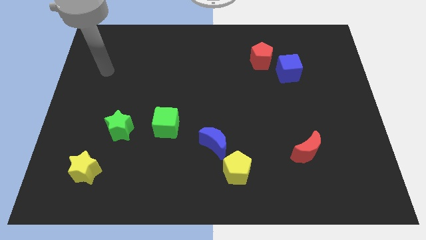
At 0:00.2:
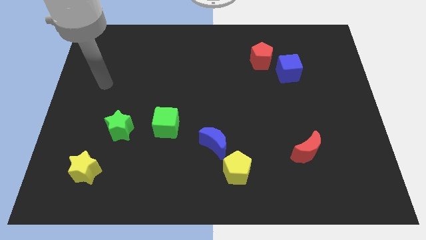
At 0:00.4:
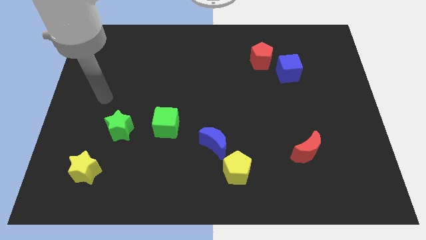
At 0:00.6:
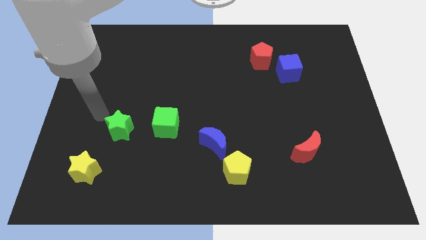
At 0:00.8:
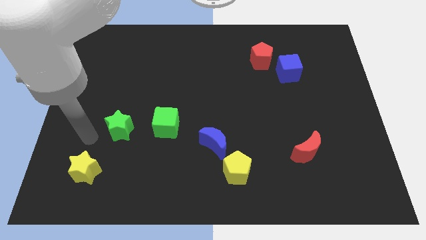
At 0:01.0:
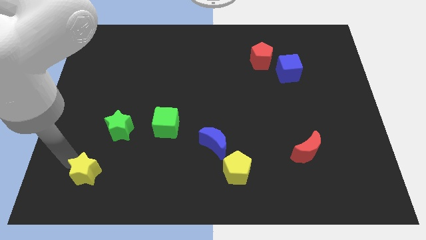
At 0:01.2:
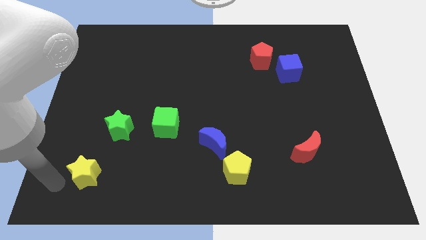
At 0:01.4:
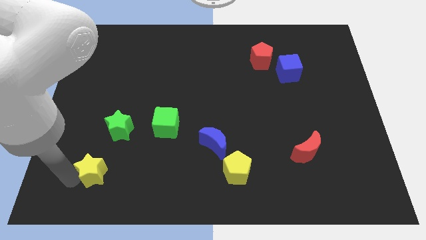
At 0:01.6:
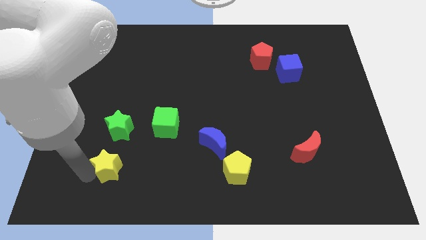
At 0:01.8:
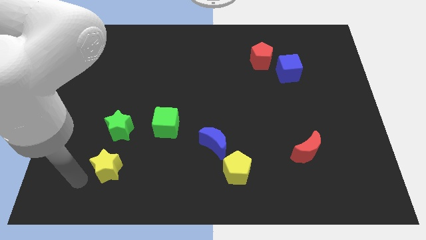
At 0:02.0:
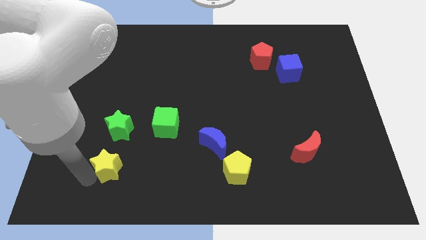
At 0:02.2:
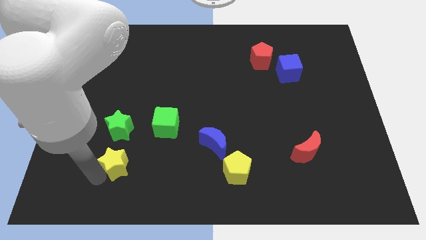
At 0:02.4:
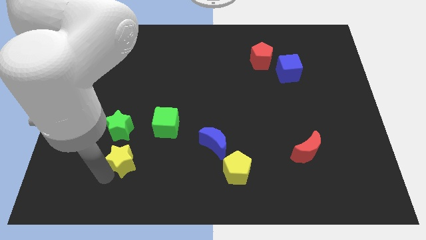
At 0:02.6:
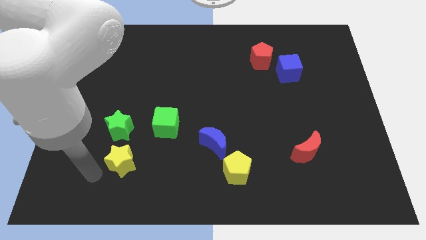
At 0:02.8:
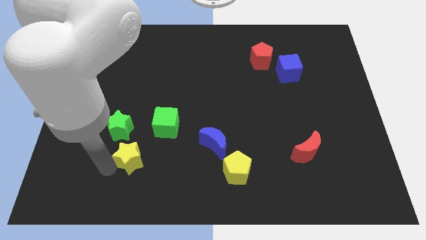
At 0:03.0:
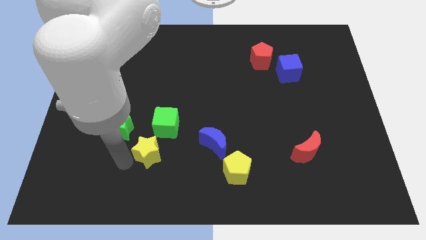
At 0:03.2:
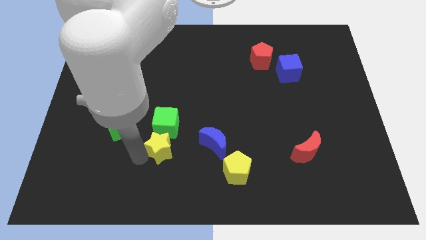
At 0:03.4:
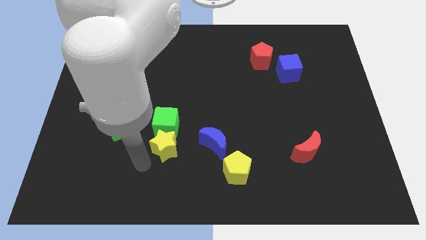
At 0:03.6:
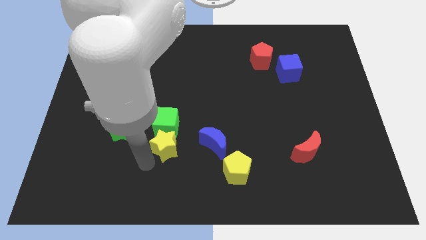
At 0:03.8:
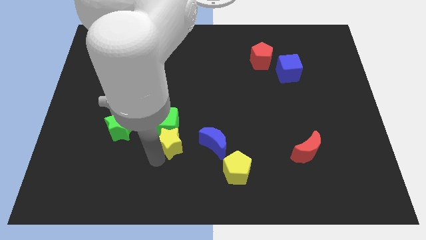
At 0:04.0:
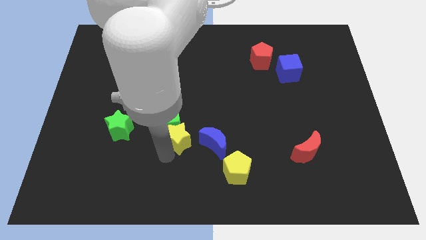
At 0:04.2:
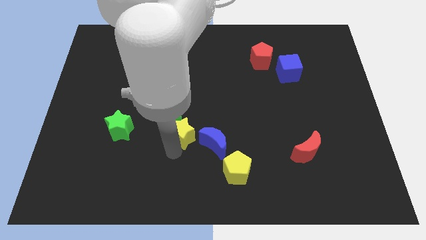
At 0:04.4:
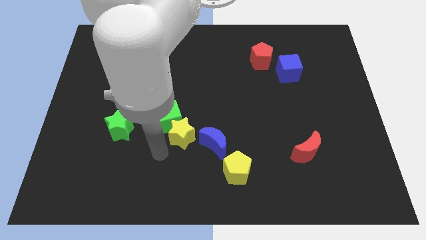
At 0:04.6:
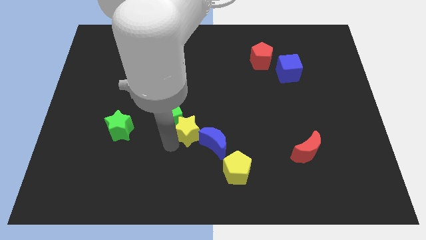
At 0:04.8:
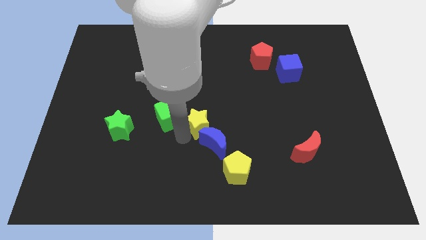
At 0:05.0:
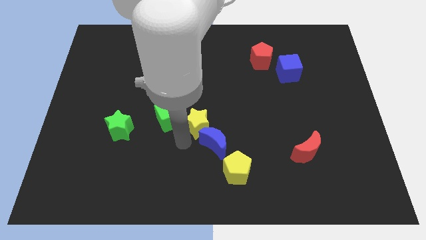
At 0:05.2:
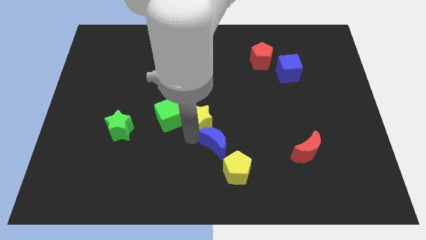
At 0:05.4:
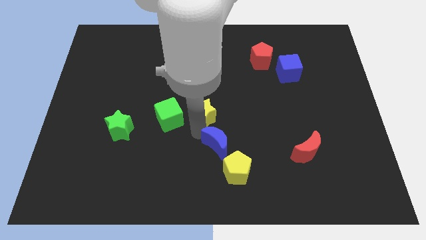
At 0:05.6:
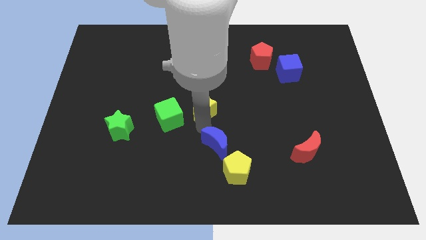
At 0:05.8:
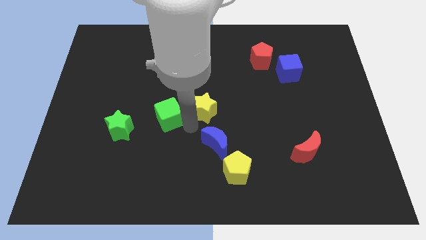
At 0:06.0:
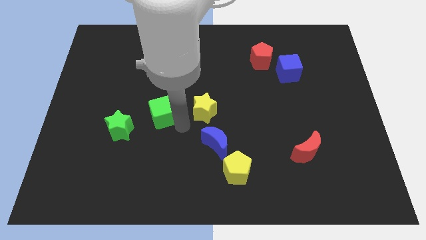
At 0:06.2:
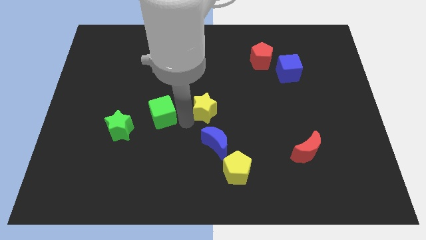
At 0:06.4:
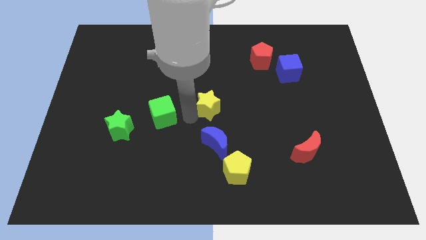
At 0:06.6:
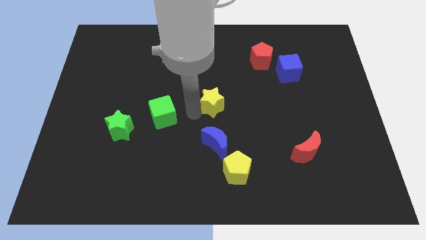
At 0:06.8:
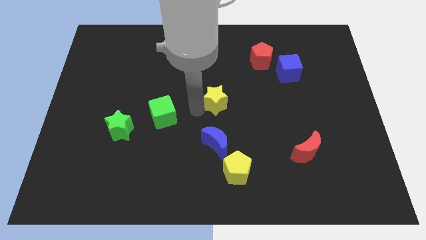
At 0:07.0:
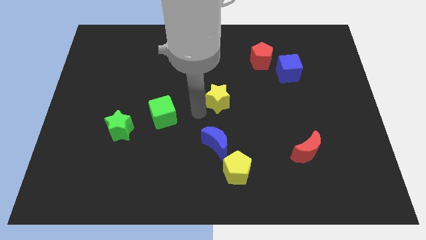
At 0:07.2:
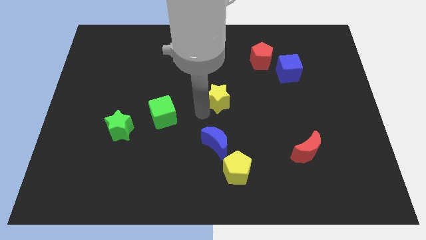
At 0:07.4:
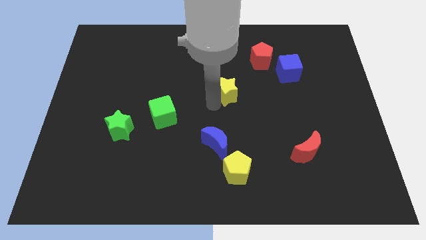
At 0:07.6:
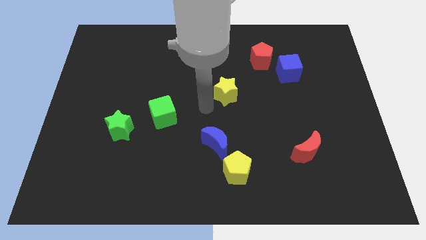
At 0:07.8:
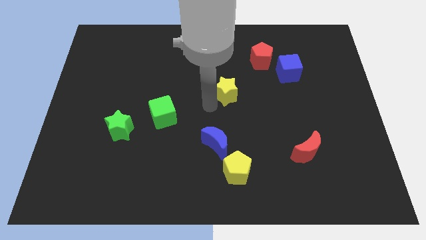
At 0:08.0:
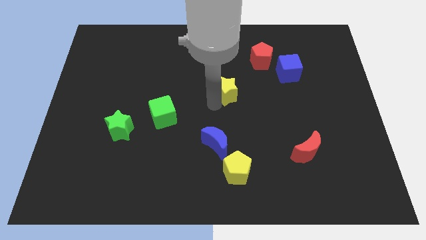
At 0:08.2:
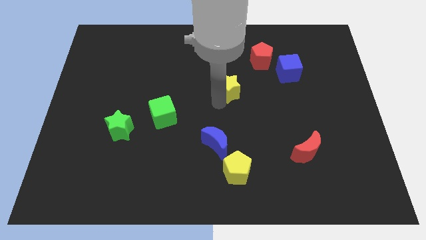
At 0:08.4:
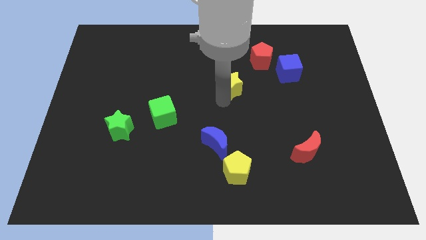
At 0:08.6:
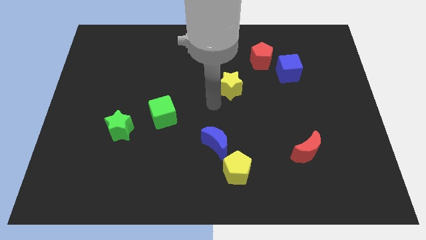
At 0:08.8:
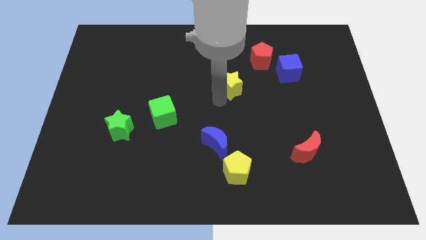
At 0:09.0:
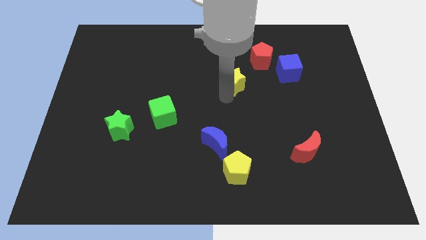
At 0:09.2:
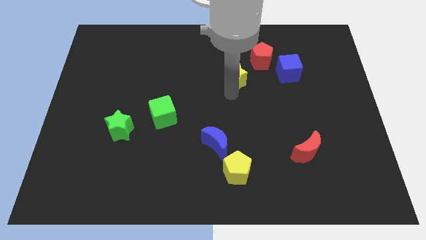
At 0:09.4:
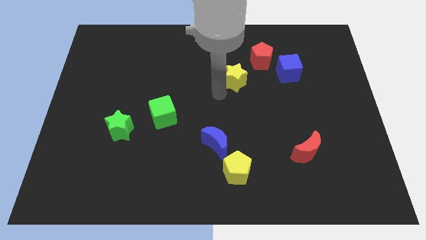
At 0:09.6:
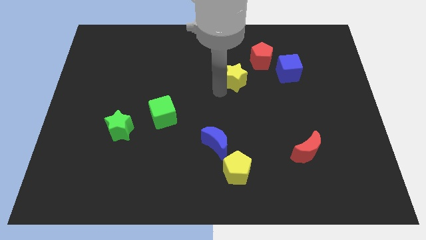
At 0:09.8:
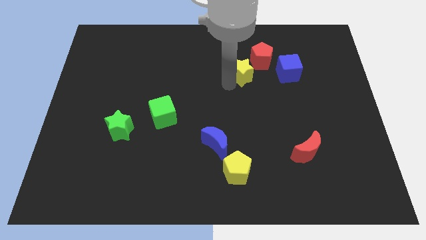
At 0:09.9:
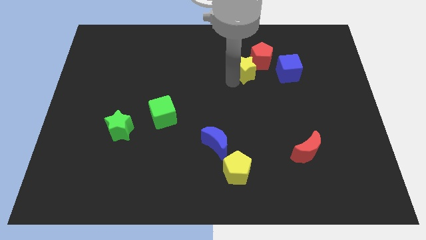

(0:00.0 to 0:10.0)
move the yellow star close to the red pentagon

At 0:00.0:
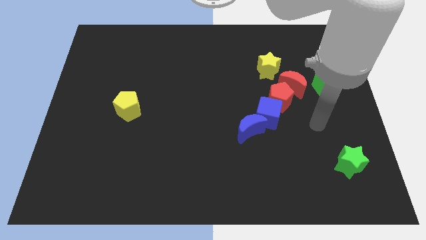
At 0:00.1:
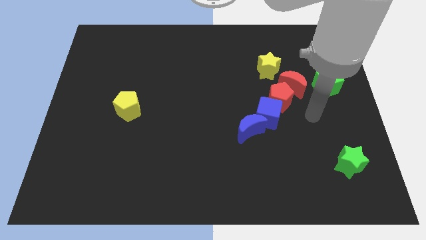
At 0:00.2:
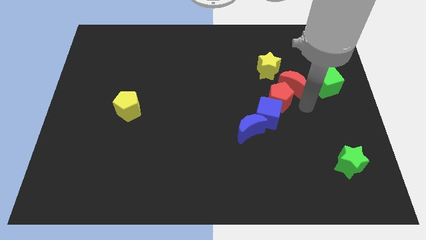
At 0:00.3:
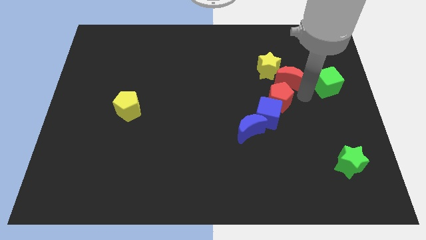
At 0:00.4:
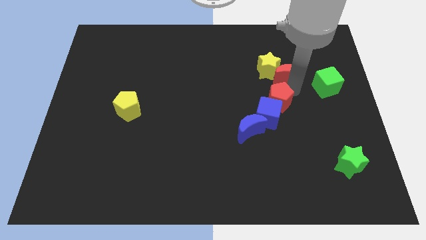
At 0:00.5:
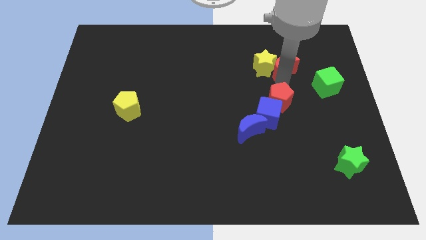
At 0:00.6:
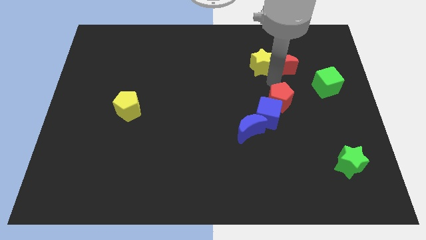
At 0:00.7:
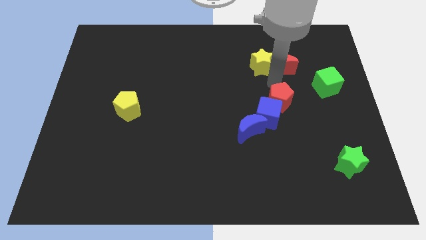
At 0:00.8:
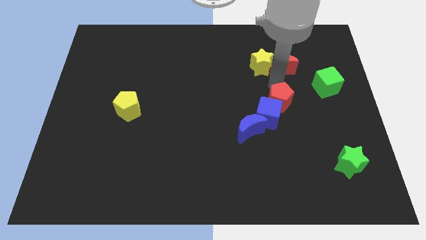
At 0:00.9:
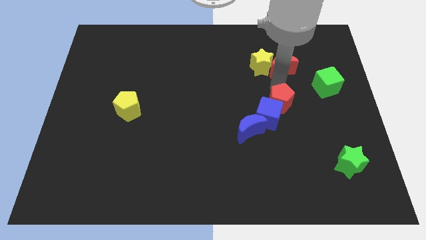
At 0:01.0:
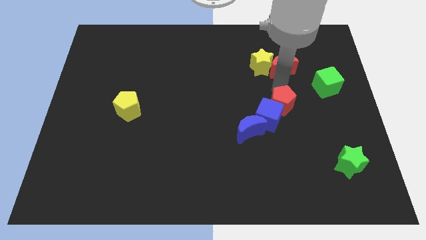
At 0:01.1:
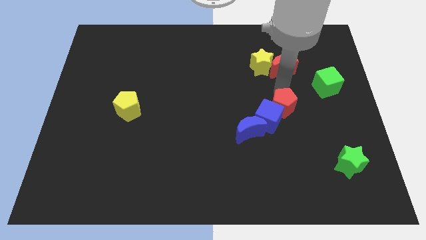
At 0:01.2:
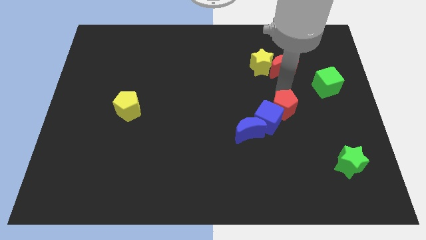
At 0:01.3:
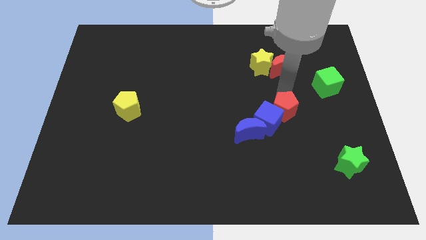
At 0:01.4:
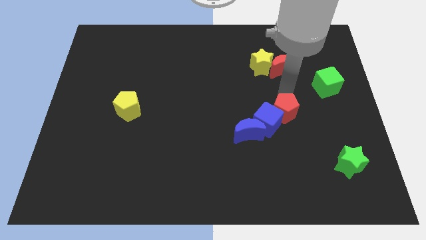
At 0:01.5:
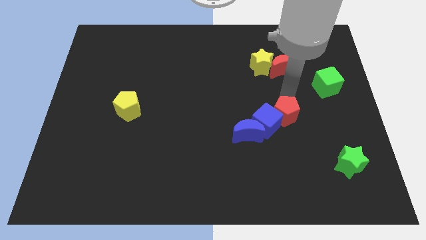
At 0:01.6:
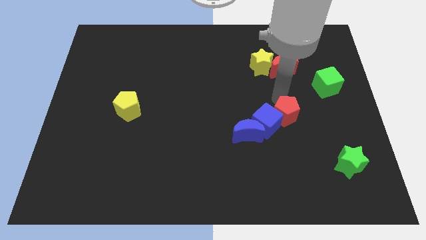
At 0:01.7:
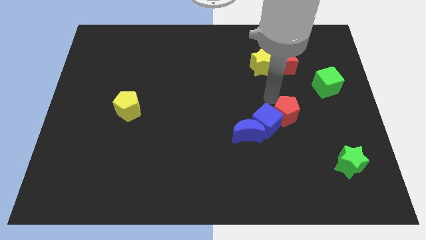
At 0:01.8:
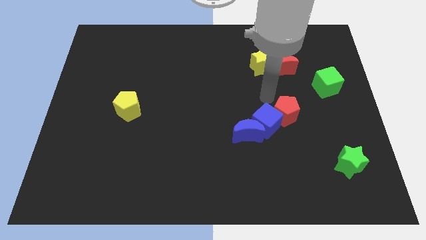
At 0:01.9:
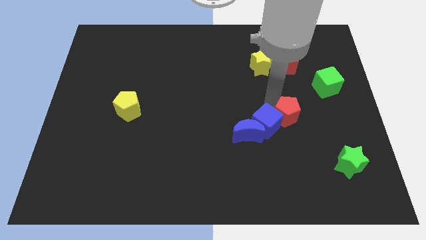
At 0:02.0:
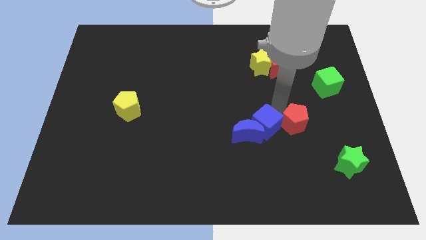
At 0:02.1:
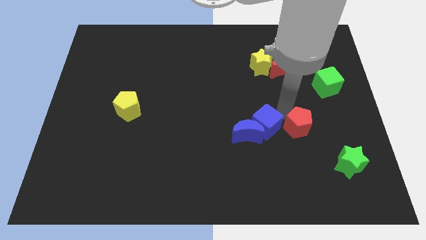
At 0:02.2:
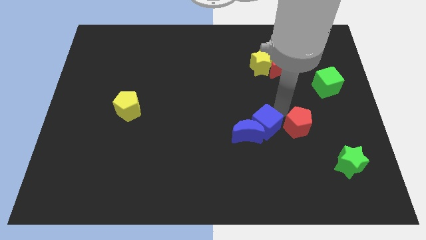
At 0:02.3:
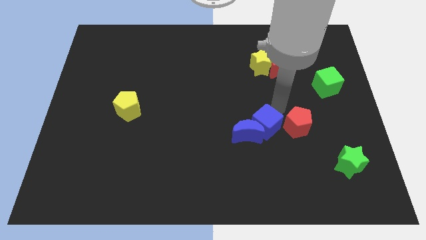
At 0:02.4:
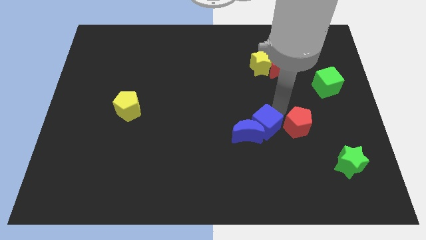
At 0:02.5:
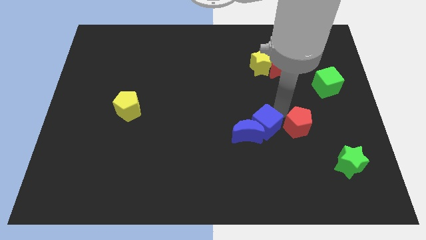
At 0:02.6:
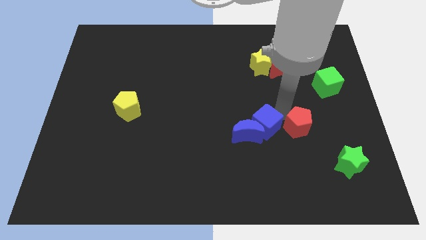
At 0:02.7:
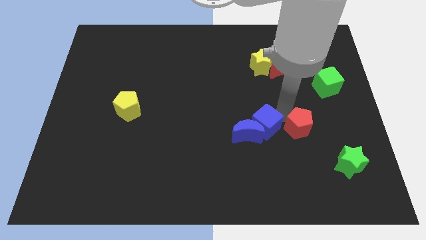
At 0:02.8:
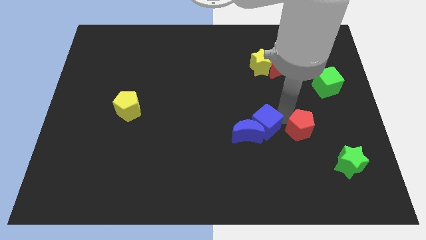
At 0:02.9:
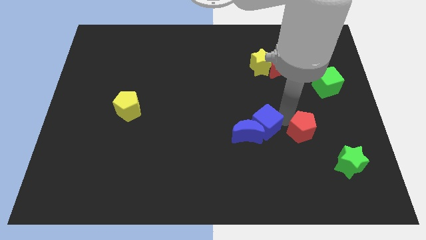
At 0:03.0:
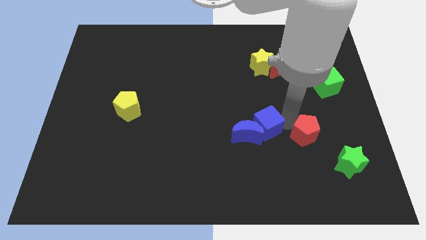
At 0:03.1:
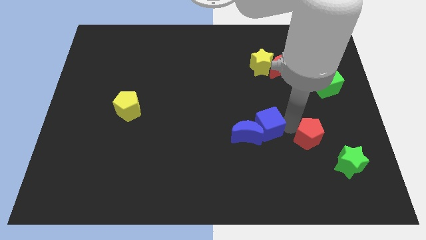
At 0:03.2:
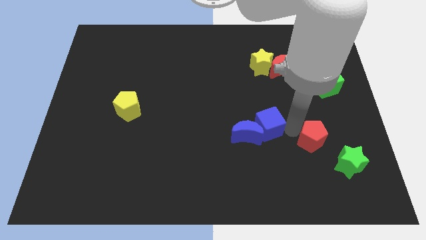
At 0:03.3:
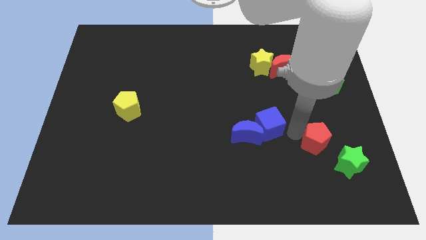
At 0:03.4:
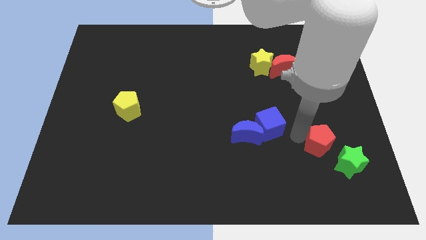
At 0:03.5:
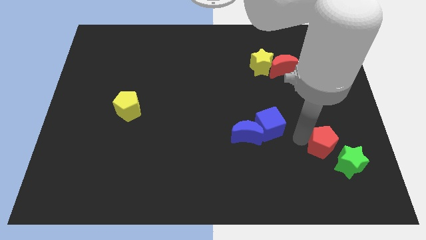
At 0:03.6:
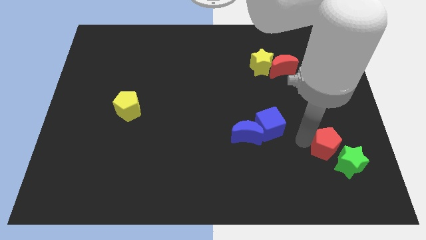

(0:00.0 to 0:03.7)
push the red pentagon to the green star
